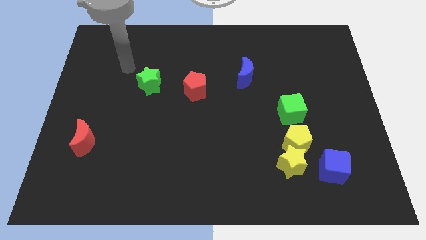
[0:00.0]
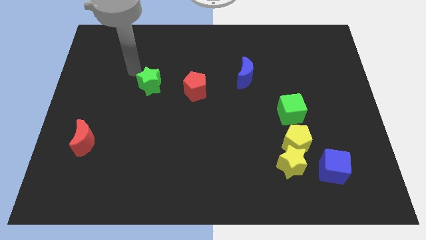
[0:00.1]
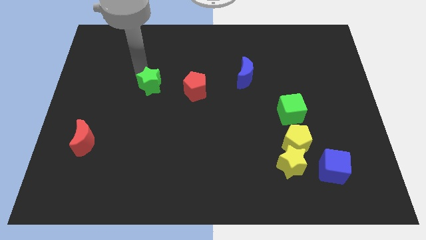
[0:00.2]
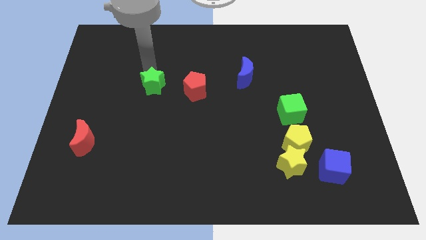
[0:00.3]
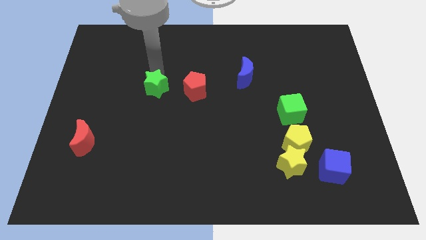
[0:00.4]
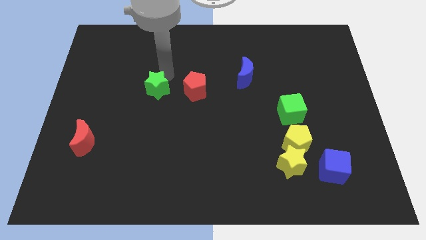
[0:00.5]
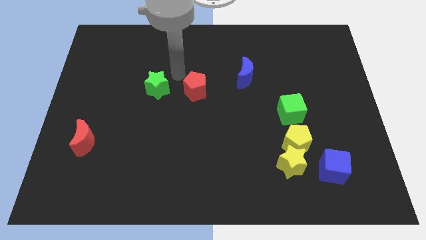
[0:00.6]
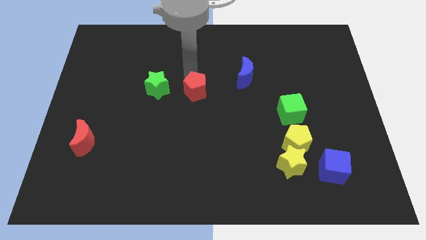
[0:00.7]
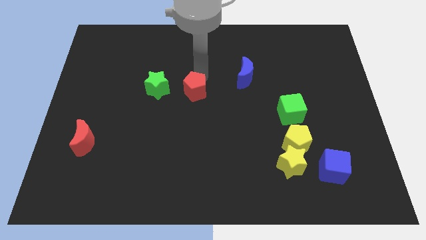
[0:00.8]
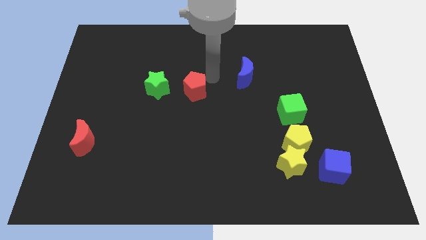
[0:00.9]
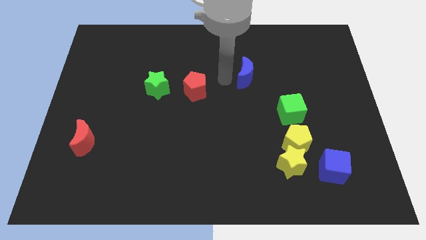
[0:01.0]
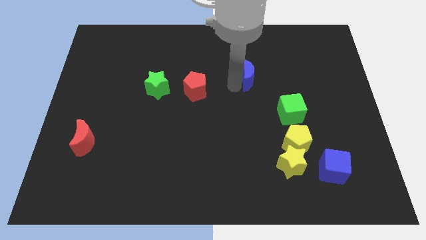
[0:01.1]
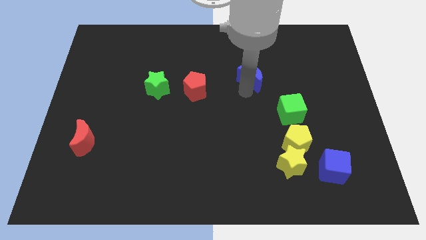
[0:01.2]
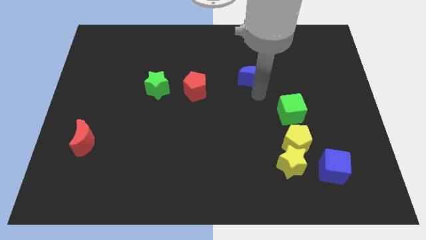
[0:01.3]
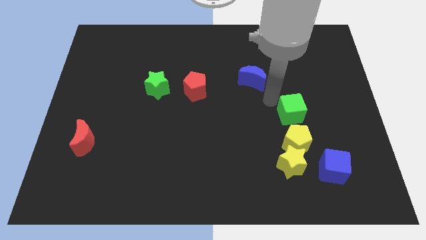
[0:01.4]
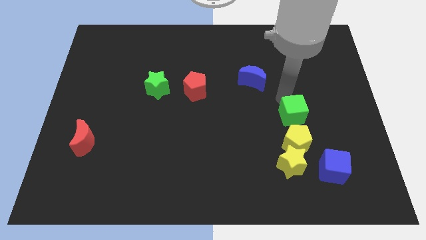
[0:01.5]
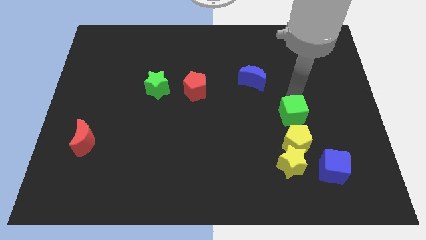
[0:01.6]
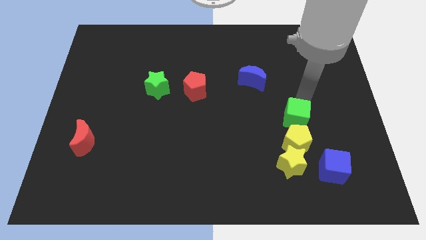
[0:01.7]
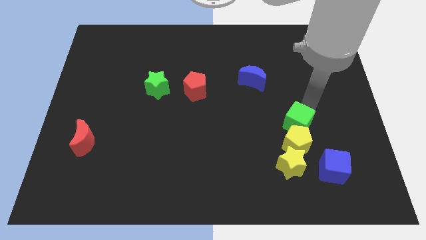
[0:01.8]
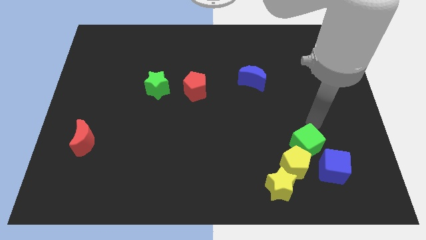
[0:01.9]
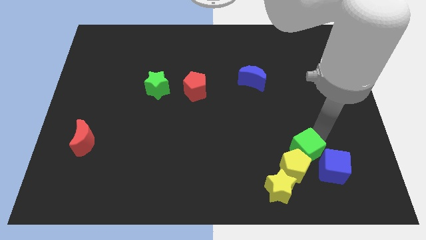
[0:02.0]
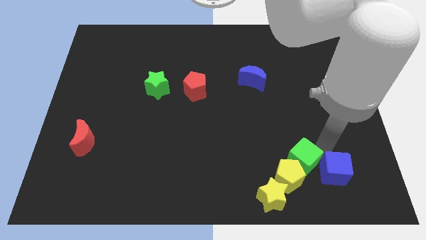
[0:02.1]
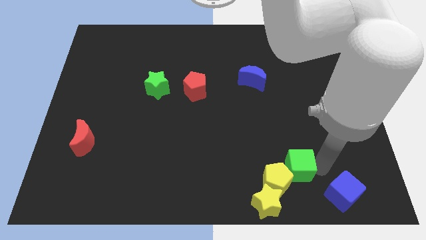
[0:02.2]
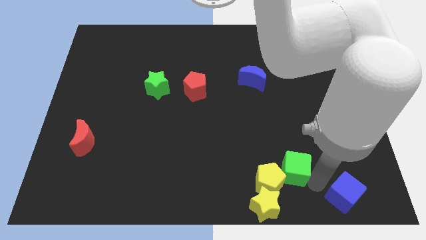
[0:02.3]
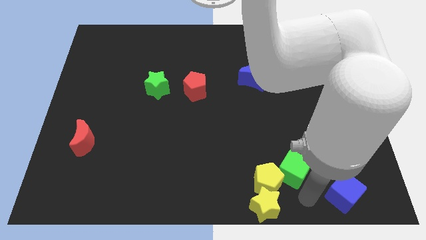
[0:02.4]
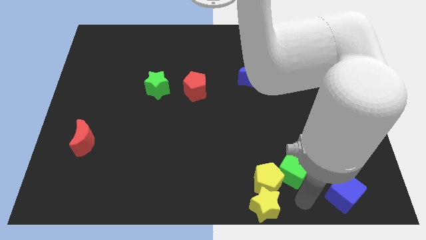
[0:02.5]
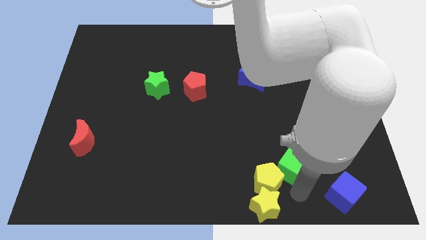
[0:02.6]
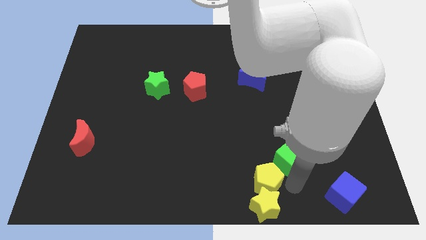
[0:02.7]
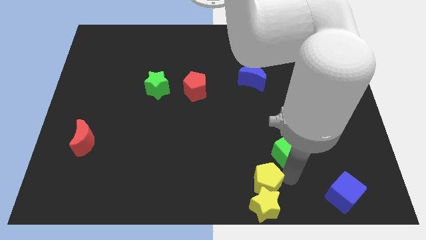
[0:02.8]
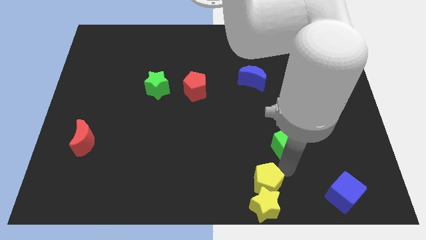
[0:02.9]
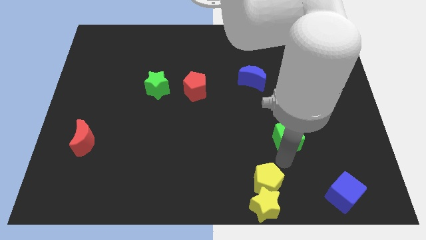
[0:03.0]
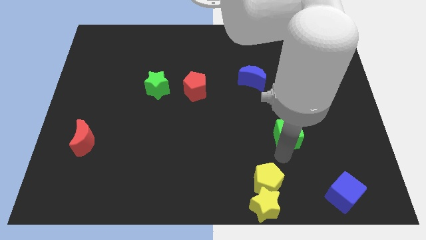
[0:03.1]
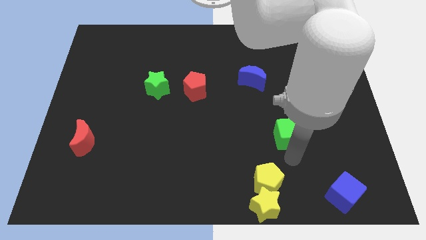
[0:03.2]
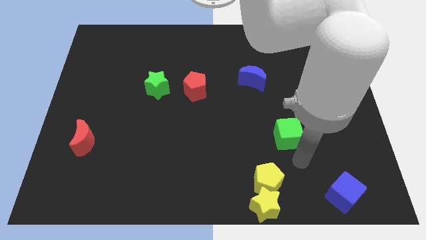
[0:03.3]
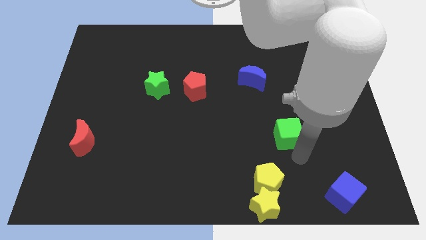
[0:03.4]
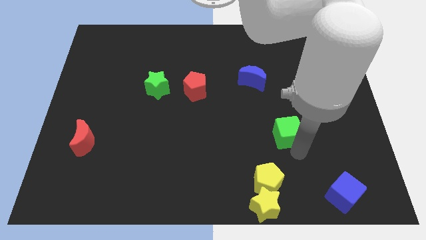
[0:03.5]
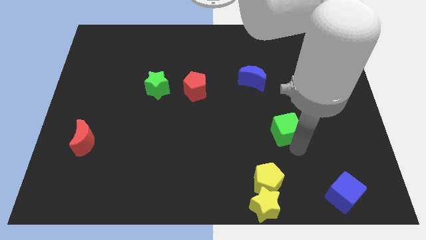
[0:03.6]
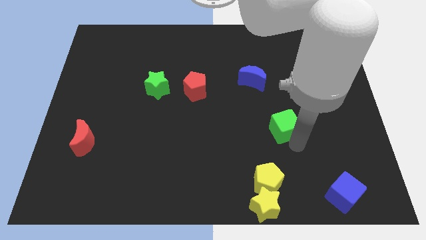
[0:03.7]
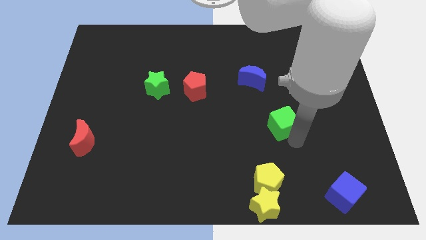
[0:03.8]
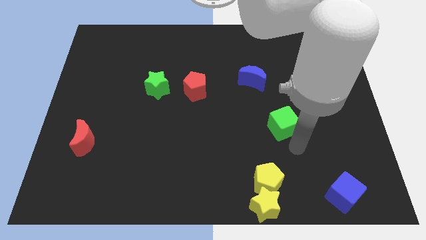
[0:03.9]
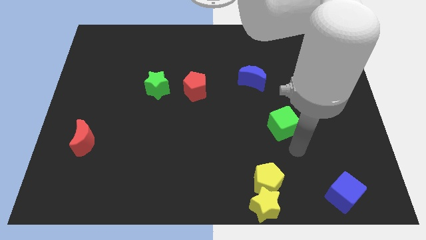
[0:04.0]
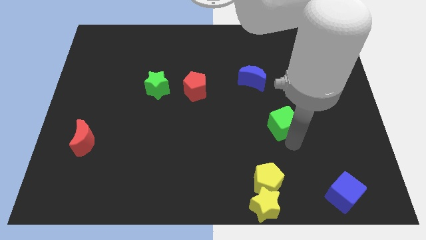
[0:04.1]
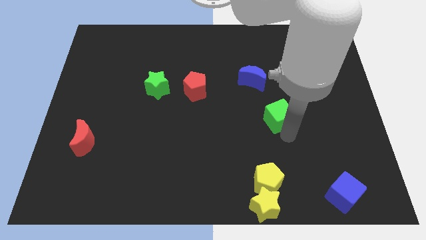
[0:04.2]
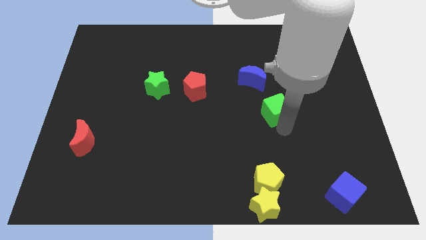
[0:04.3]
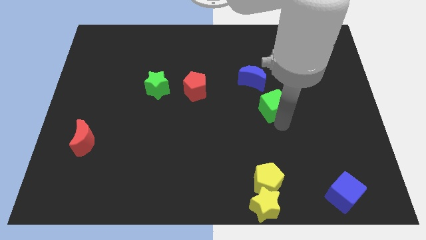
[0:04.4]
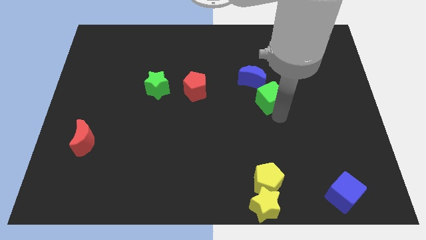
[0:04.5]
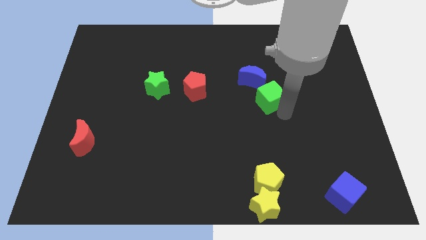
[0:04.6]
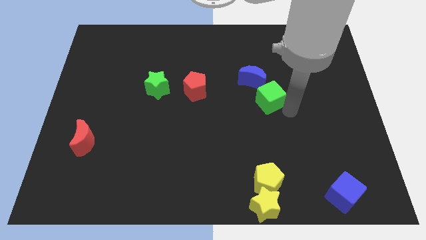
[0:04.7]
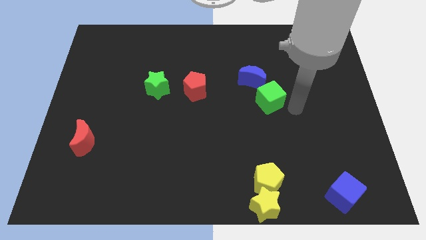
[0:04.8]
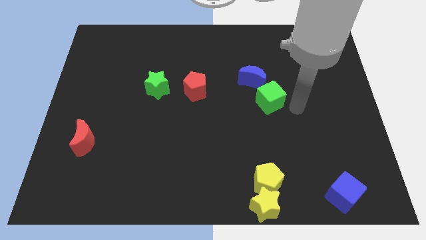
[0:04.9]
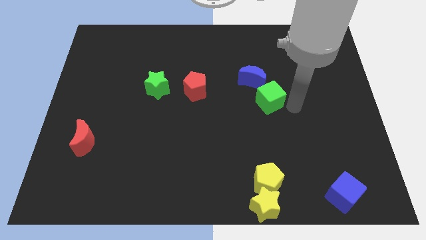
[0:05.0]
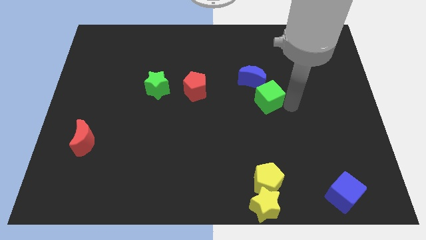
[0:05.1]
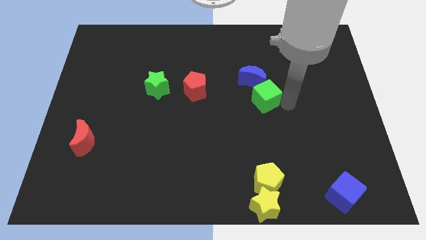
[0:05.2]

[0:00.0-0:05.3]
move the green cube upwards and to the left a bit

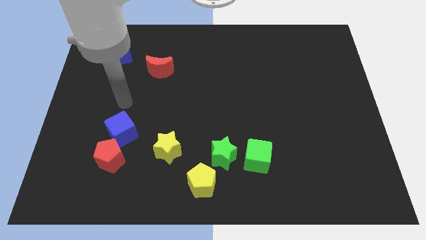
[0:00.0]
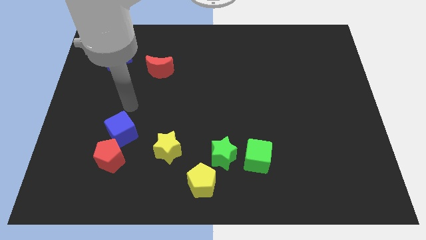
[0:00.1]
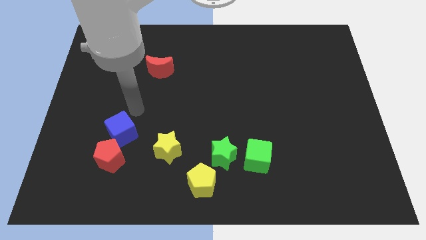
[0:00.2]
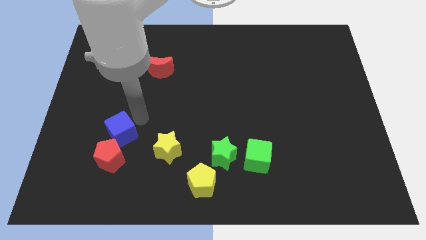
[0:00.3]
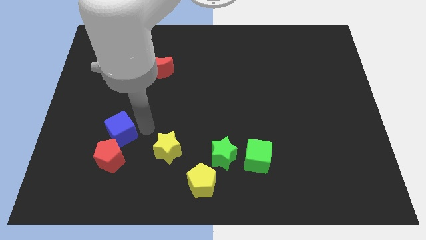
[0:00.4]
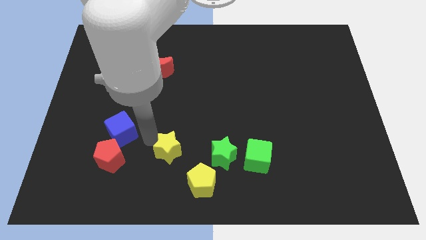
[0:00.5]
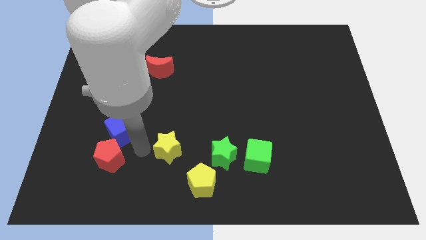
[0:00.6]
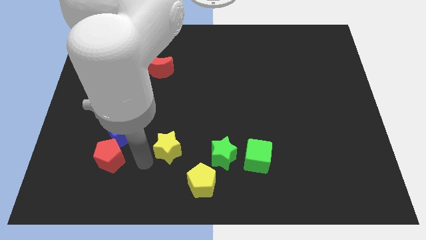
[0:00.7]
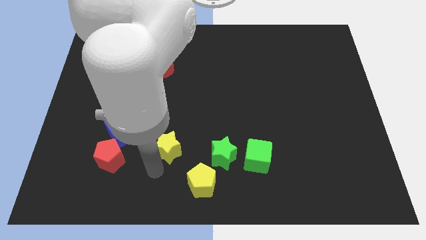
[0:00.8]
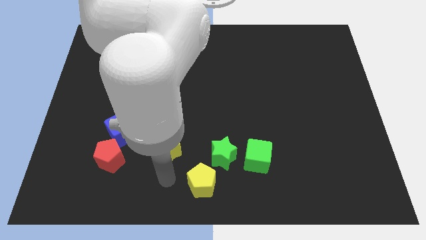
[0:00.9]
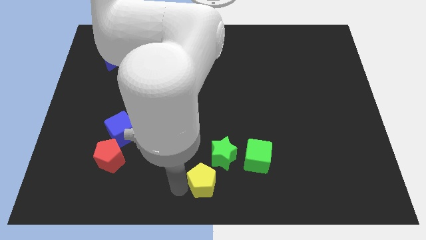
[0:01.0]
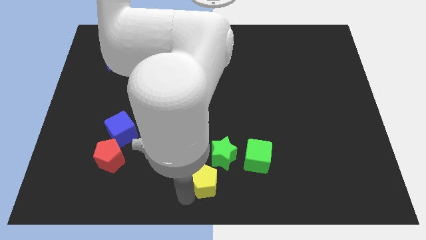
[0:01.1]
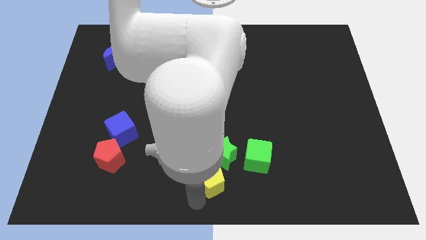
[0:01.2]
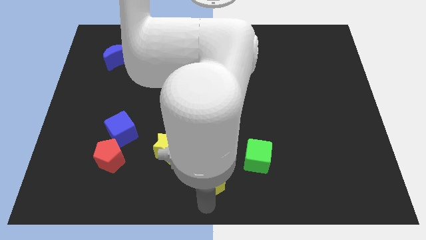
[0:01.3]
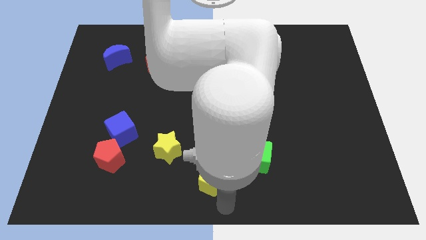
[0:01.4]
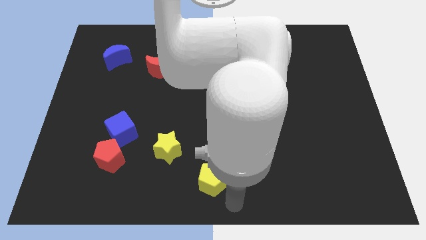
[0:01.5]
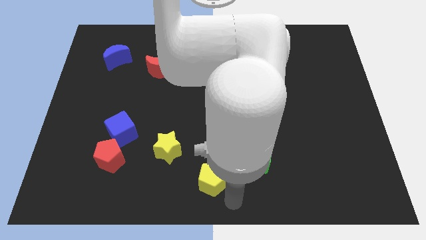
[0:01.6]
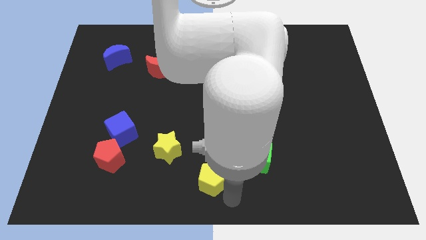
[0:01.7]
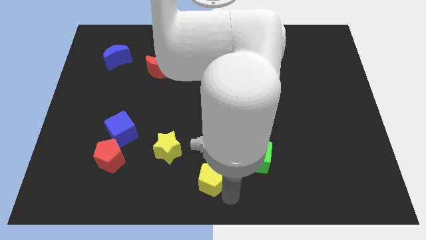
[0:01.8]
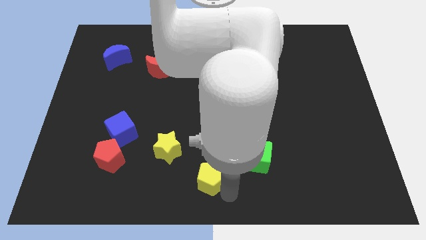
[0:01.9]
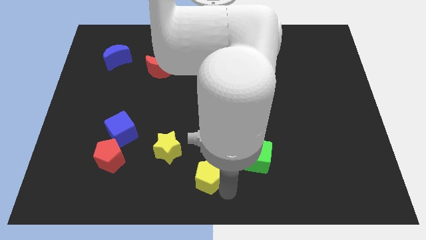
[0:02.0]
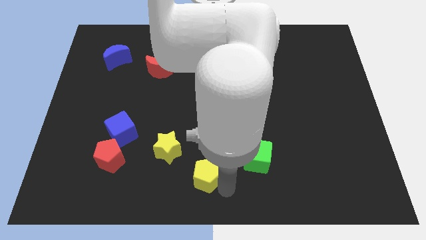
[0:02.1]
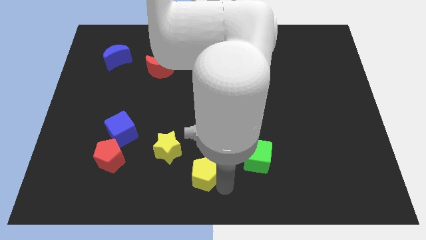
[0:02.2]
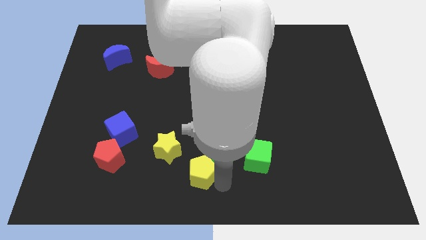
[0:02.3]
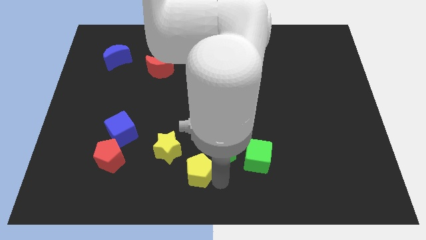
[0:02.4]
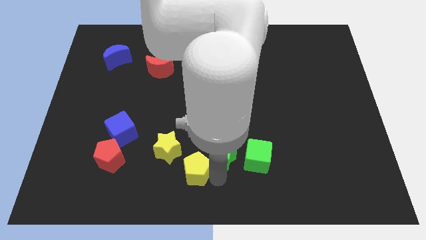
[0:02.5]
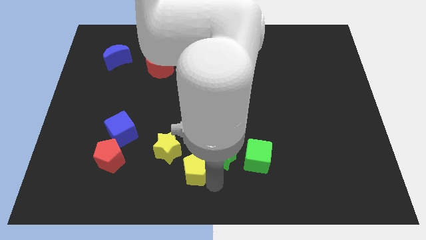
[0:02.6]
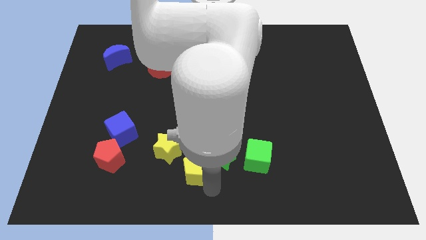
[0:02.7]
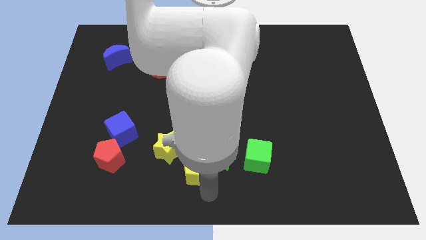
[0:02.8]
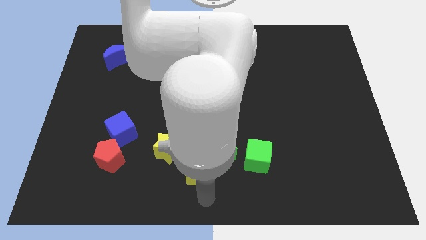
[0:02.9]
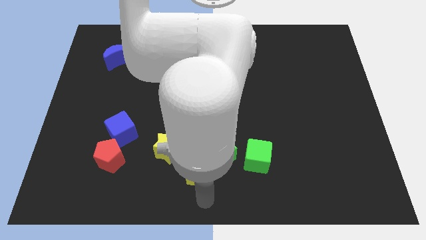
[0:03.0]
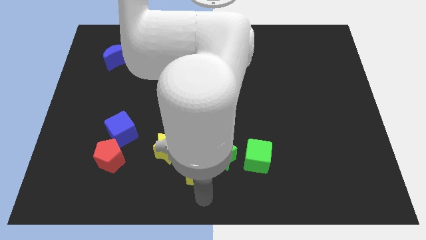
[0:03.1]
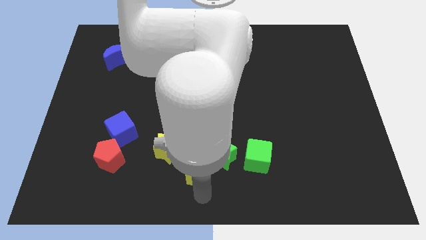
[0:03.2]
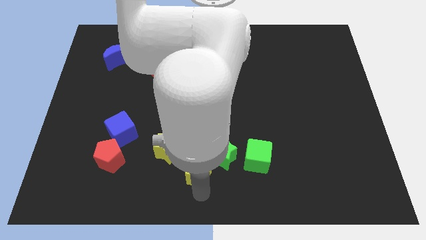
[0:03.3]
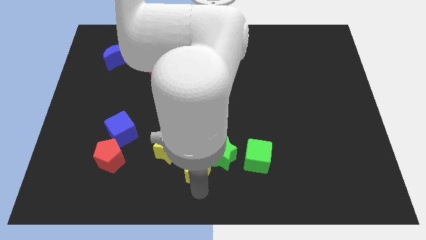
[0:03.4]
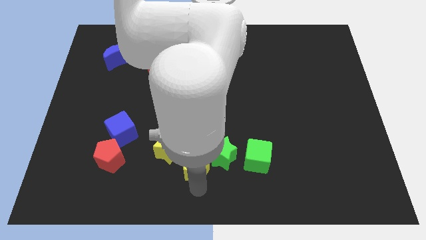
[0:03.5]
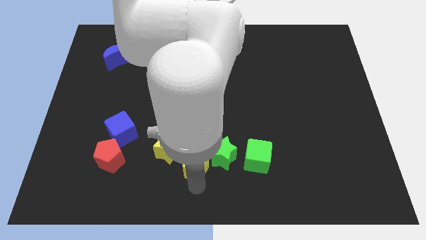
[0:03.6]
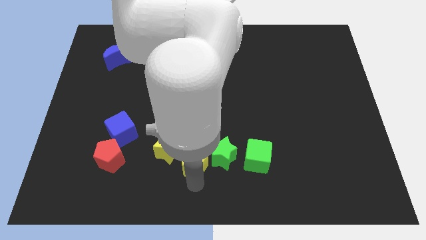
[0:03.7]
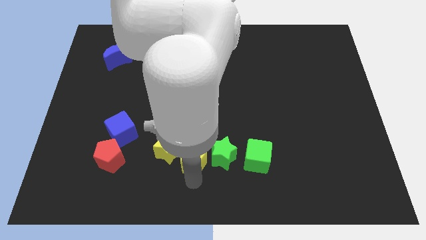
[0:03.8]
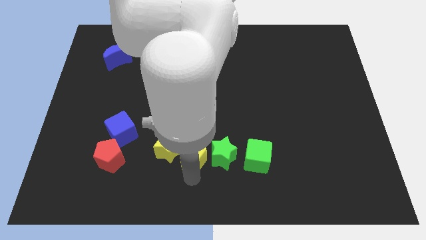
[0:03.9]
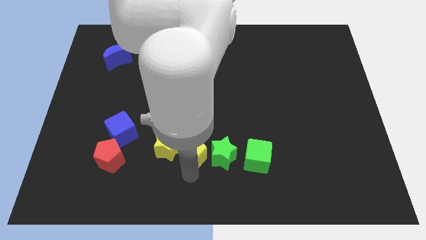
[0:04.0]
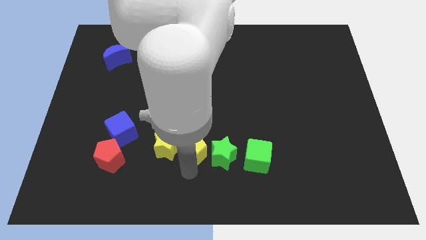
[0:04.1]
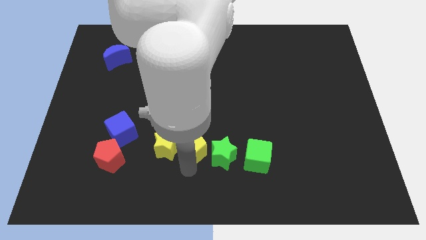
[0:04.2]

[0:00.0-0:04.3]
slightly move the yellow pentagon upwards and left
